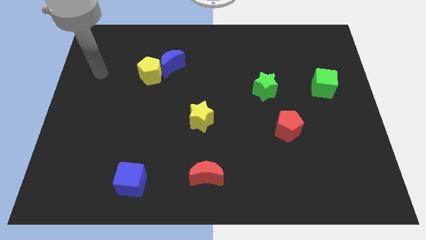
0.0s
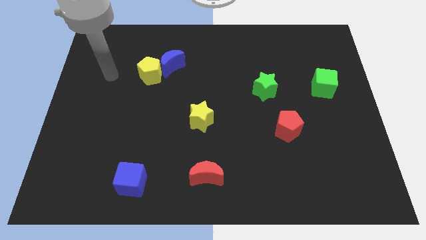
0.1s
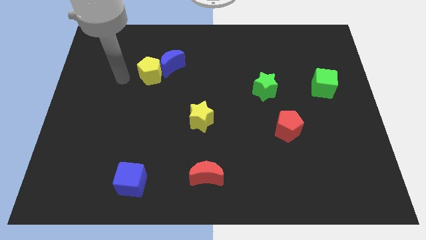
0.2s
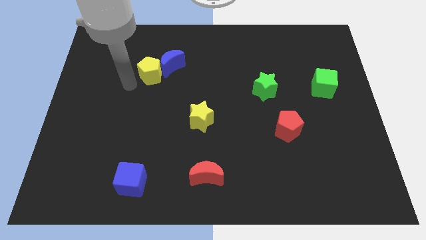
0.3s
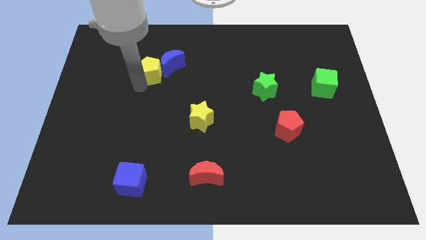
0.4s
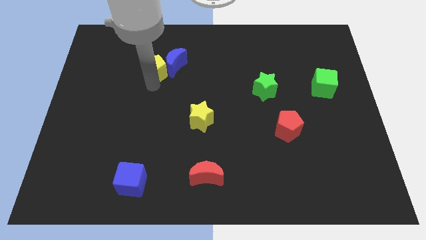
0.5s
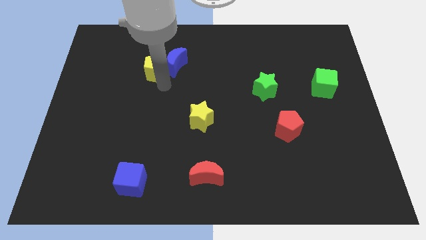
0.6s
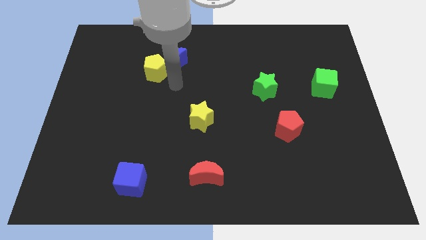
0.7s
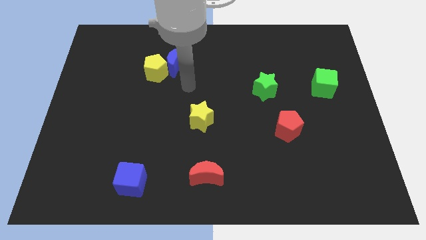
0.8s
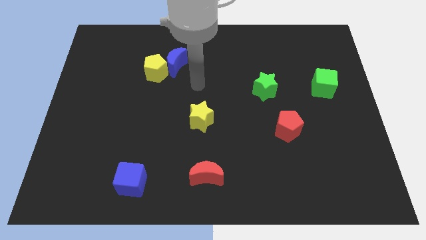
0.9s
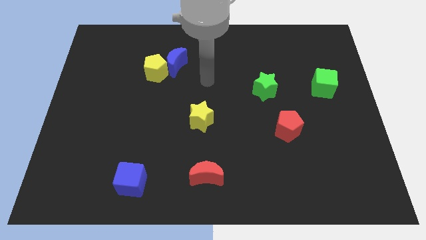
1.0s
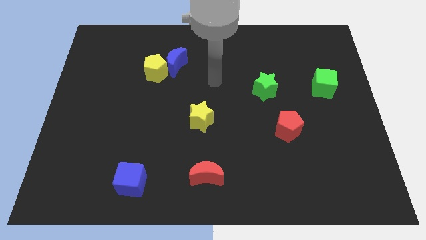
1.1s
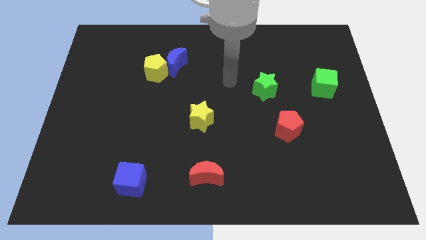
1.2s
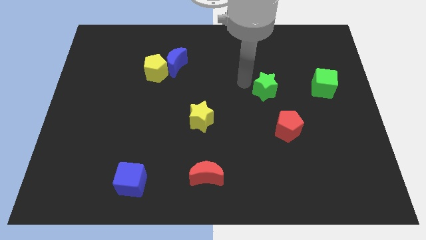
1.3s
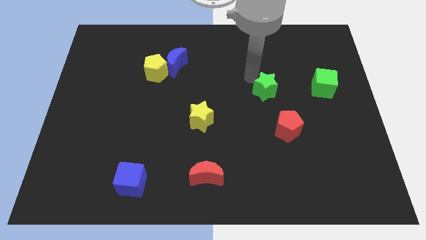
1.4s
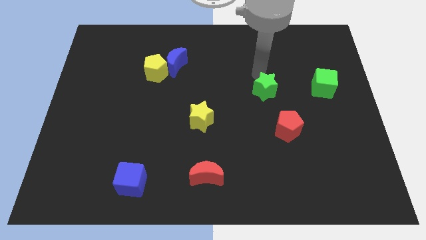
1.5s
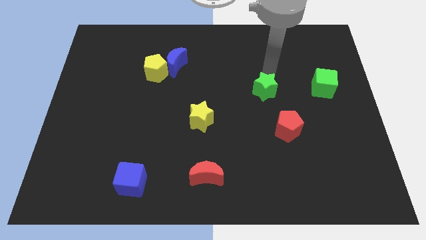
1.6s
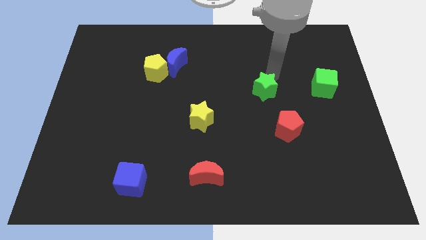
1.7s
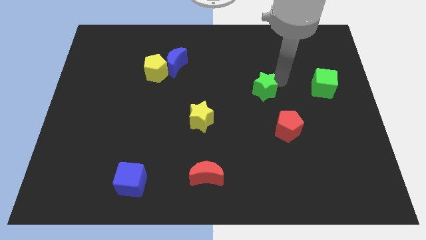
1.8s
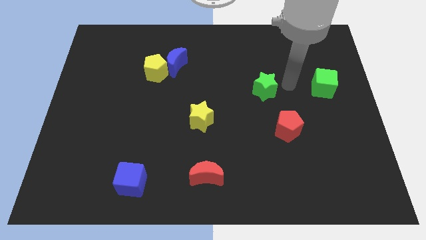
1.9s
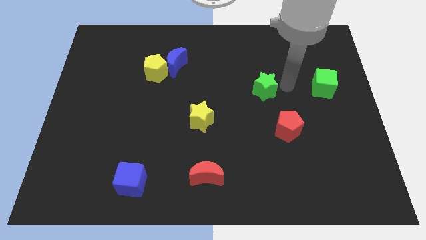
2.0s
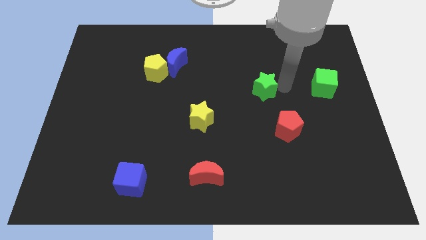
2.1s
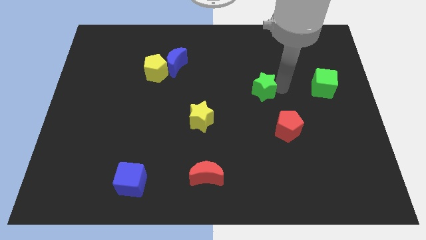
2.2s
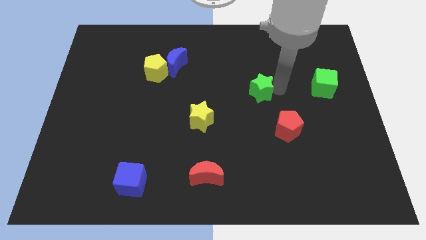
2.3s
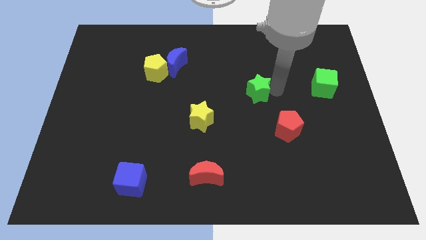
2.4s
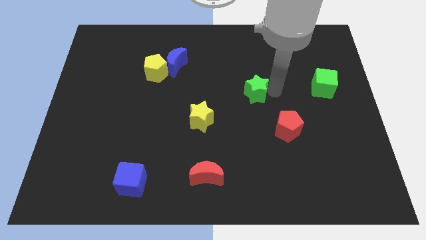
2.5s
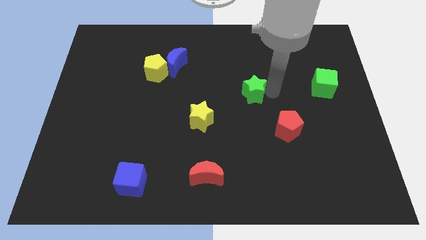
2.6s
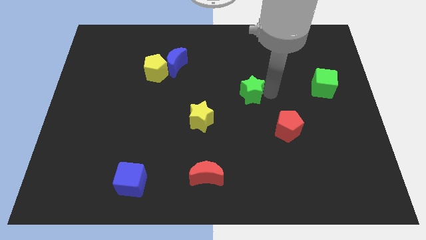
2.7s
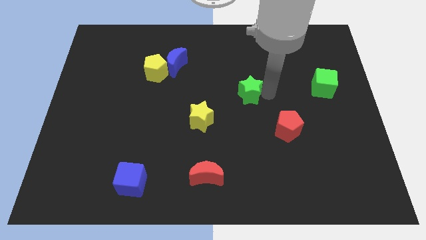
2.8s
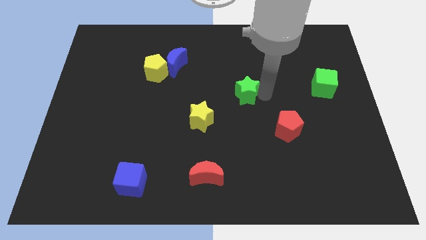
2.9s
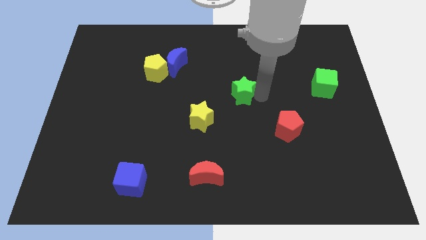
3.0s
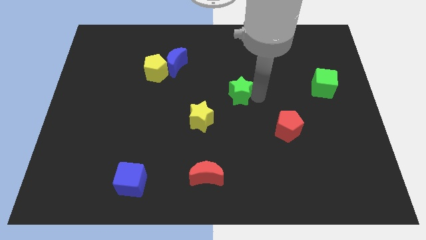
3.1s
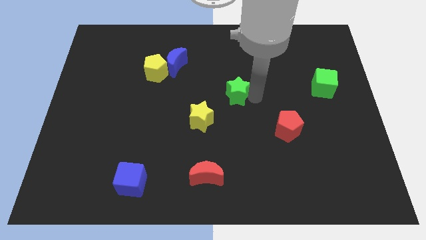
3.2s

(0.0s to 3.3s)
slide the green star left a bit

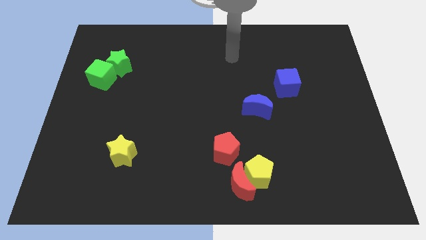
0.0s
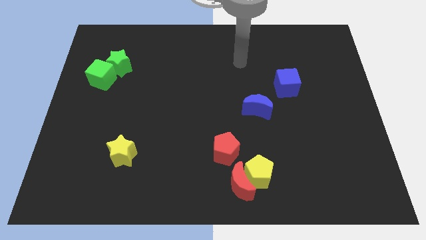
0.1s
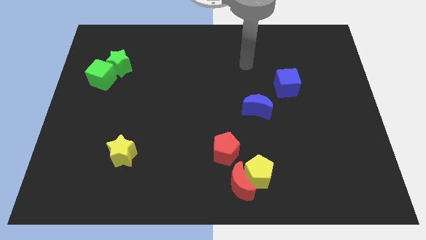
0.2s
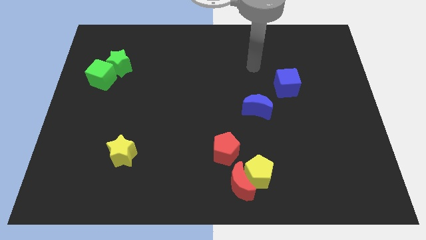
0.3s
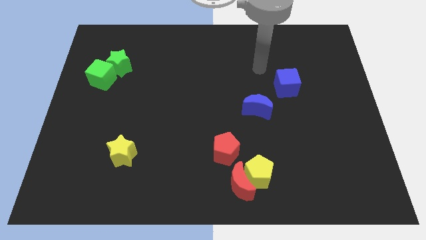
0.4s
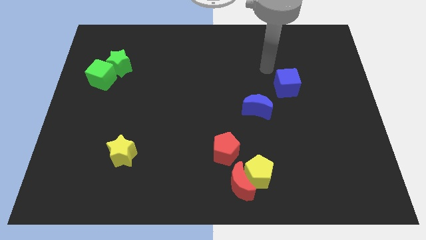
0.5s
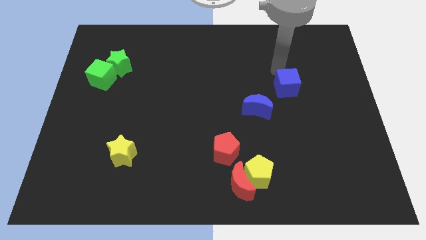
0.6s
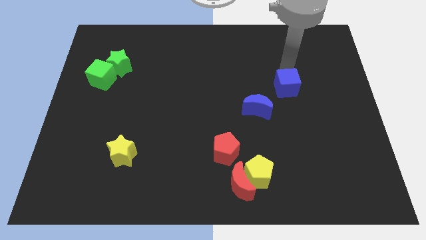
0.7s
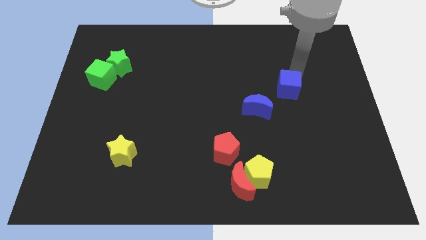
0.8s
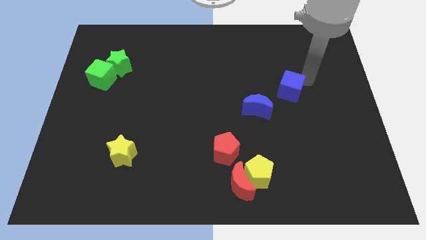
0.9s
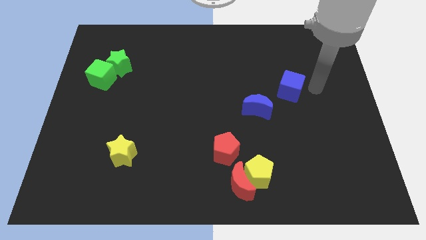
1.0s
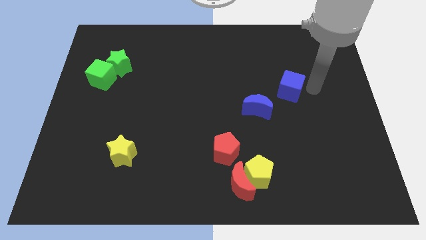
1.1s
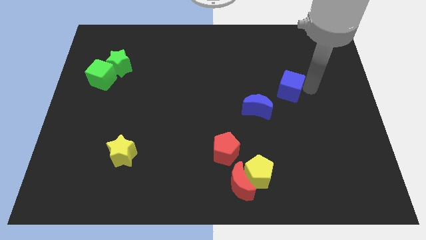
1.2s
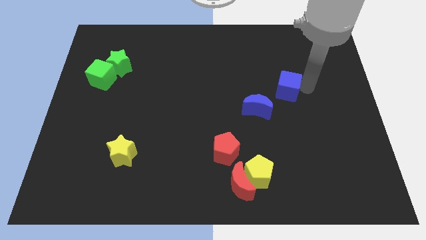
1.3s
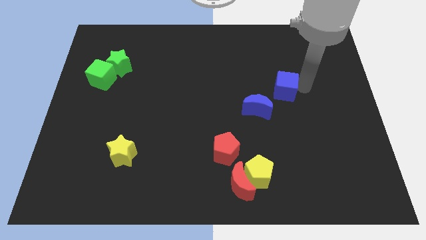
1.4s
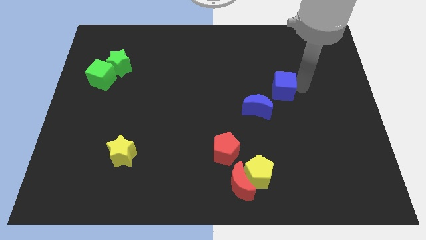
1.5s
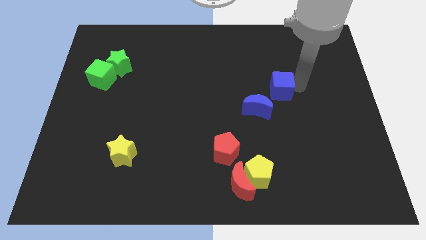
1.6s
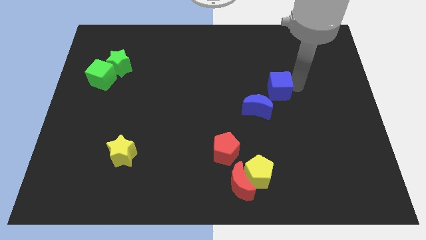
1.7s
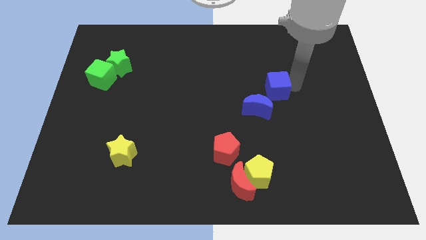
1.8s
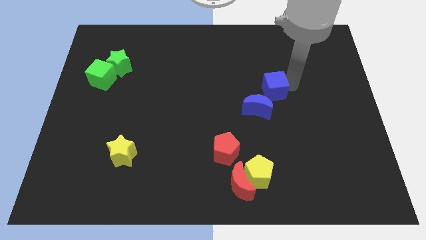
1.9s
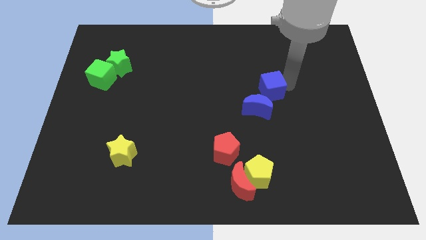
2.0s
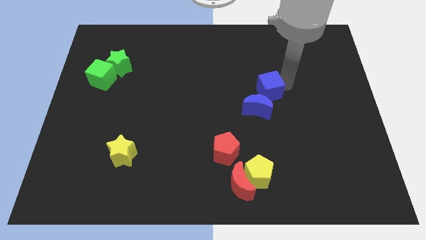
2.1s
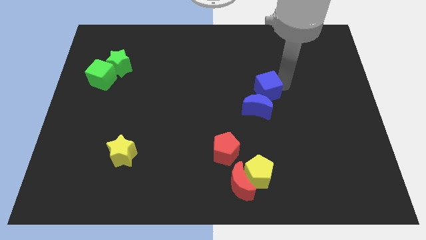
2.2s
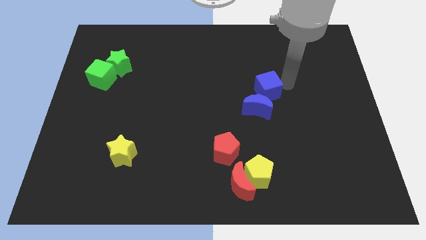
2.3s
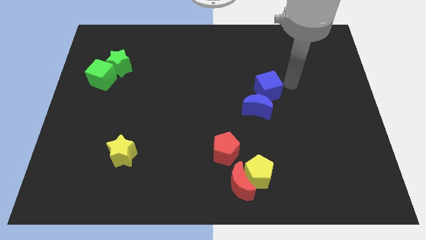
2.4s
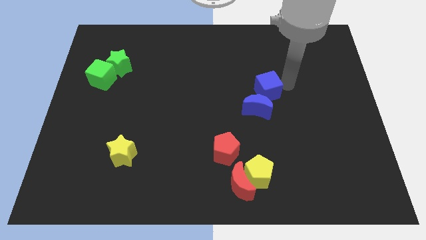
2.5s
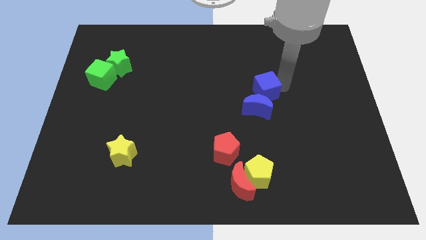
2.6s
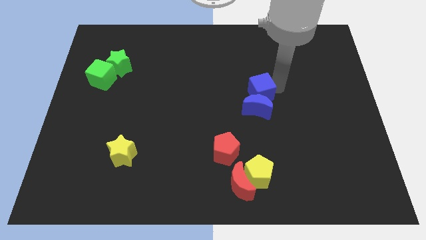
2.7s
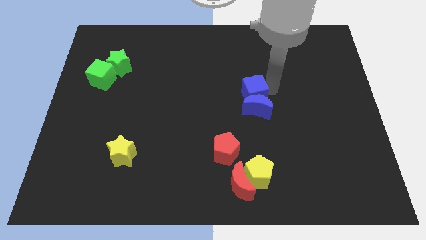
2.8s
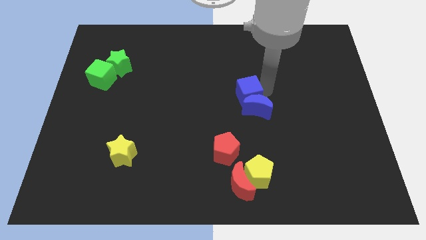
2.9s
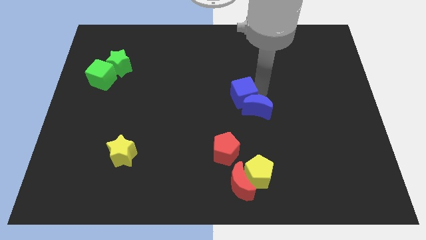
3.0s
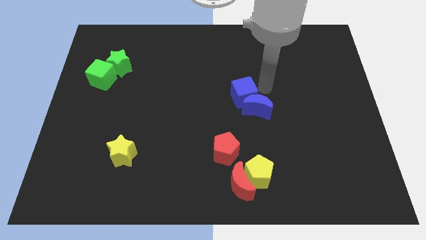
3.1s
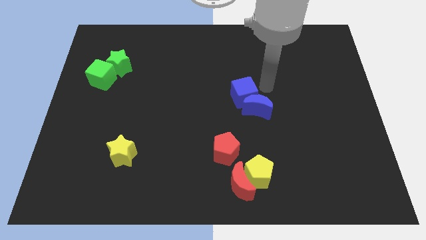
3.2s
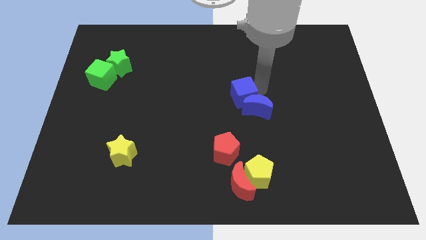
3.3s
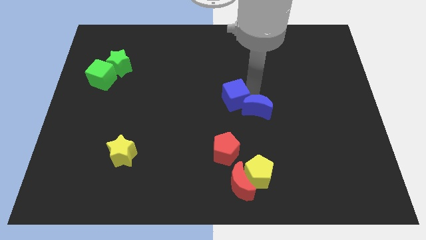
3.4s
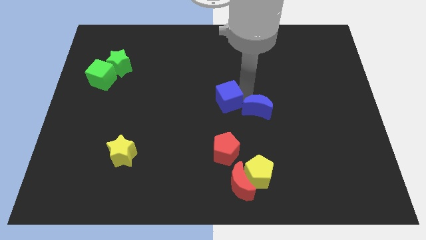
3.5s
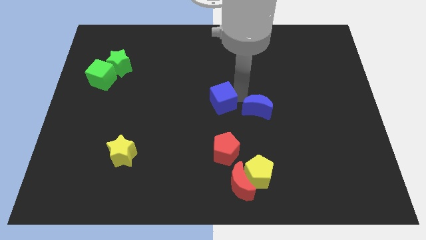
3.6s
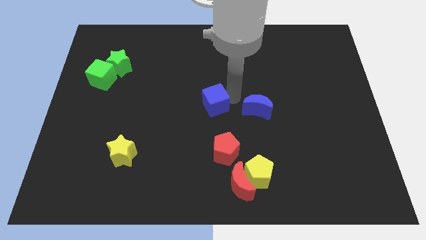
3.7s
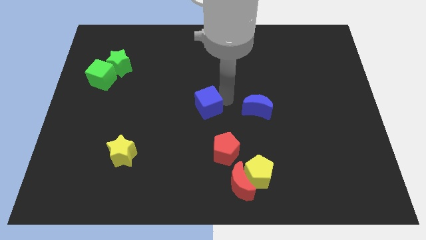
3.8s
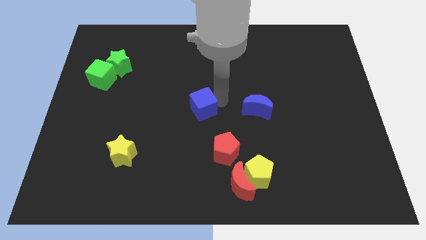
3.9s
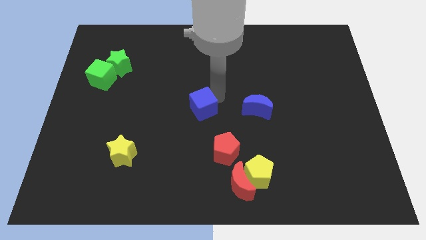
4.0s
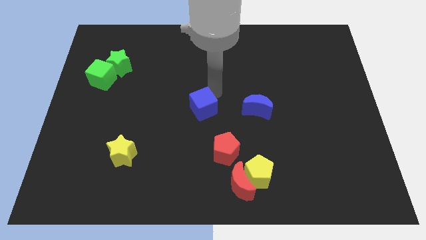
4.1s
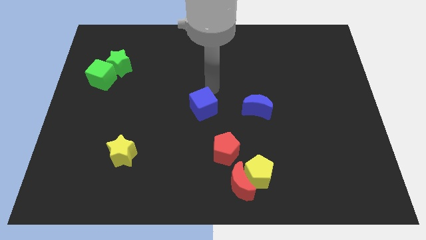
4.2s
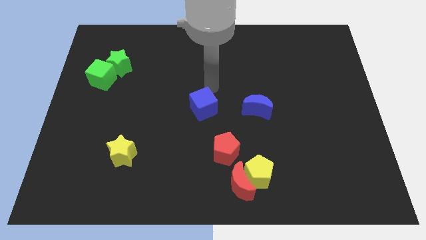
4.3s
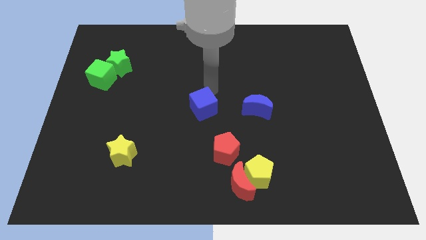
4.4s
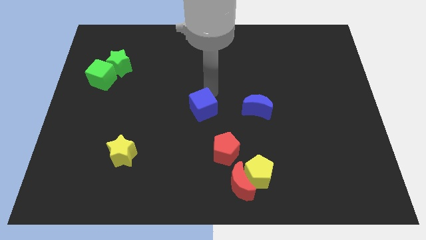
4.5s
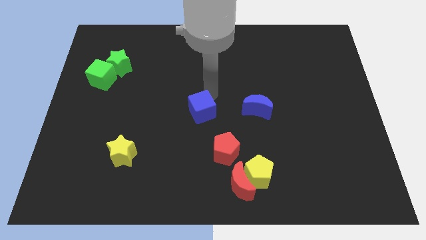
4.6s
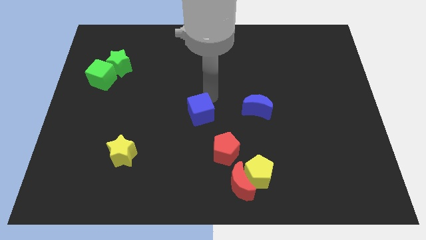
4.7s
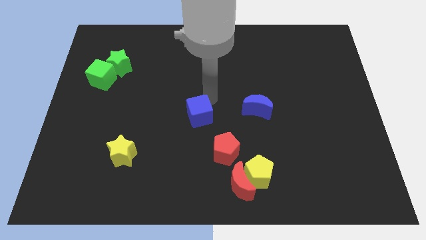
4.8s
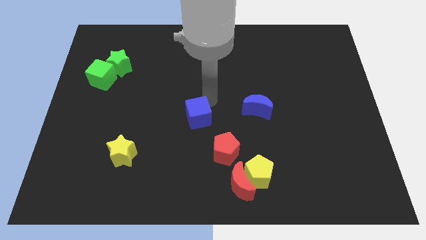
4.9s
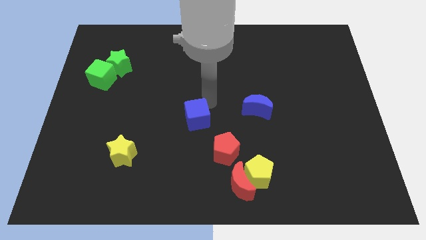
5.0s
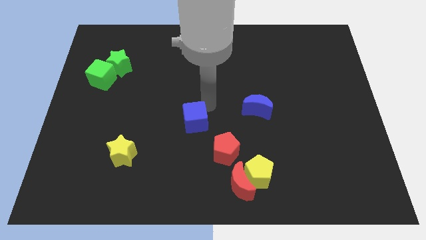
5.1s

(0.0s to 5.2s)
move the blue cube down and to the left
